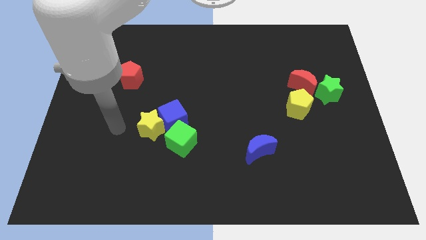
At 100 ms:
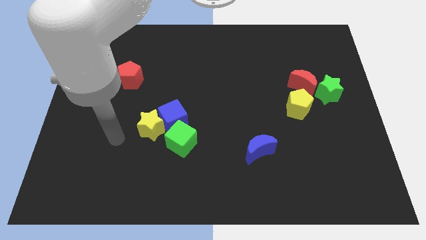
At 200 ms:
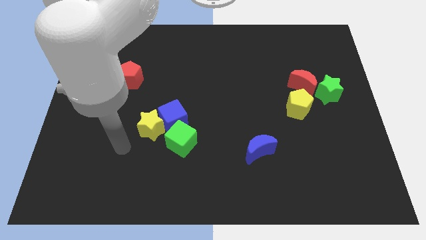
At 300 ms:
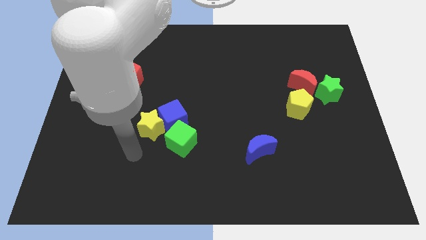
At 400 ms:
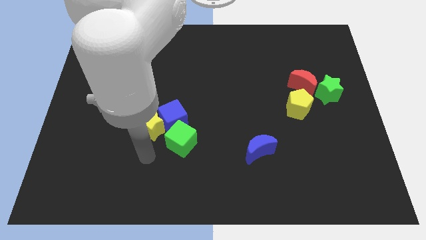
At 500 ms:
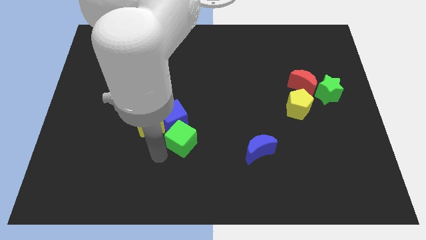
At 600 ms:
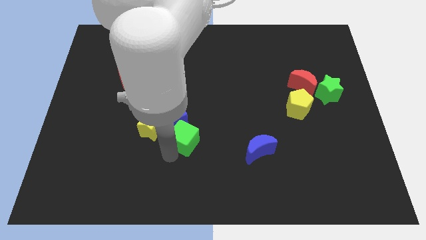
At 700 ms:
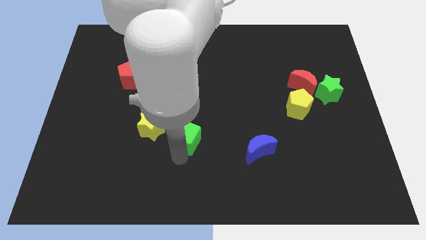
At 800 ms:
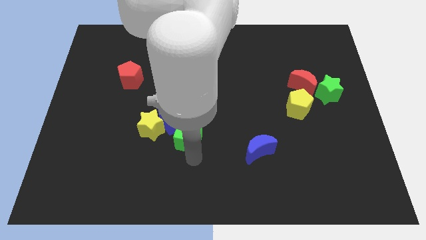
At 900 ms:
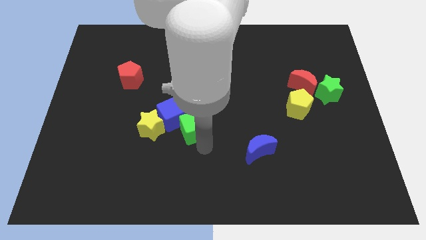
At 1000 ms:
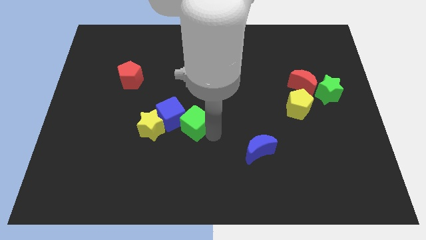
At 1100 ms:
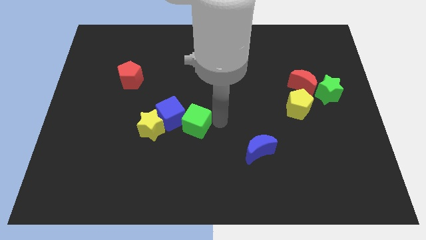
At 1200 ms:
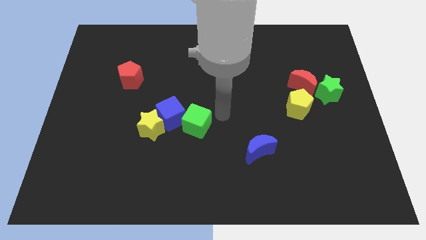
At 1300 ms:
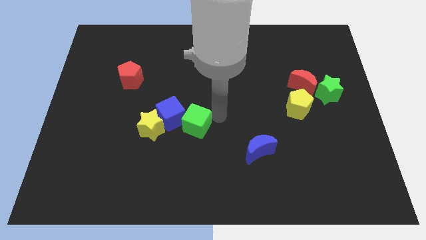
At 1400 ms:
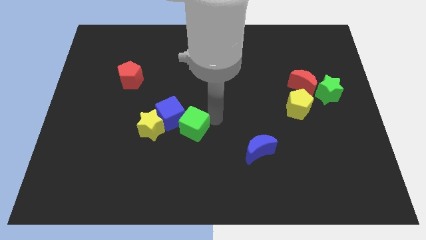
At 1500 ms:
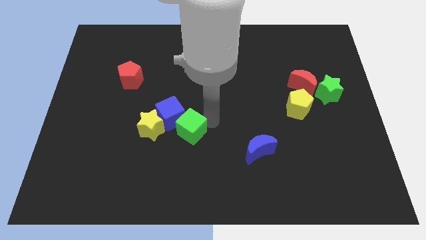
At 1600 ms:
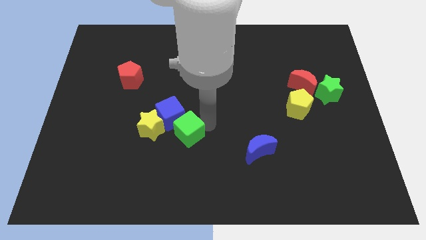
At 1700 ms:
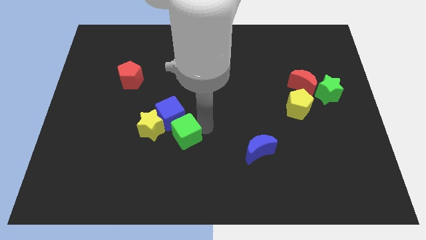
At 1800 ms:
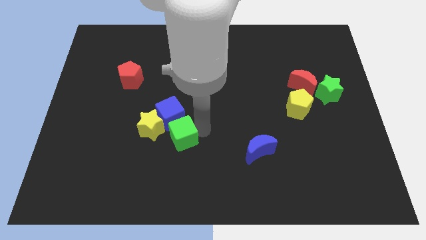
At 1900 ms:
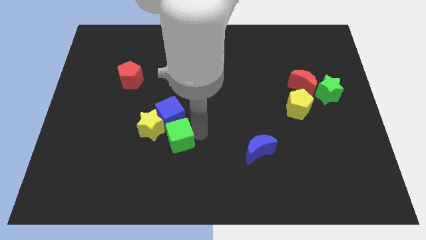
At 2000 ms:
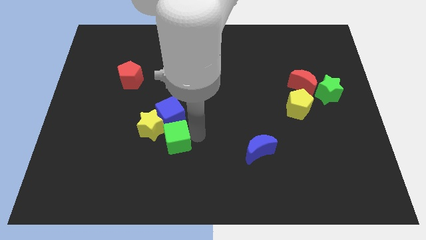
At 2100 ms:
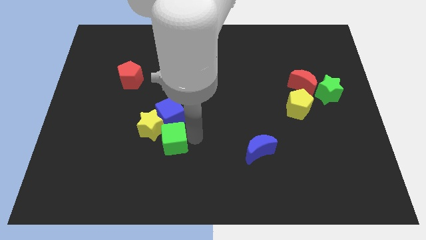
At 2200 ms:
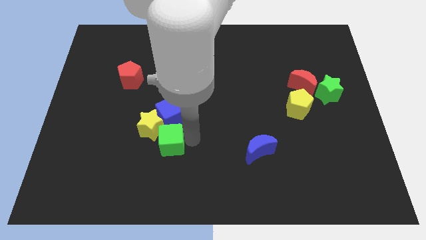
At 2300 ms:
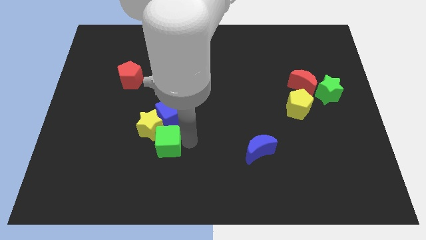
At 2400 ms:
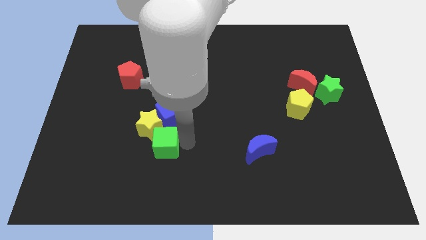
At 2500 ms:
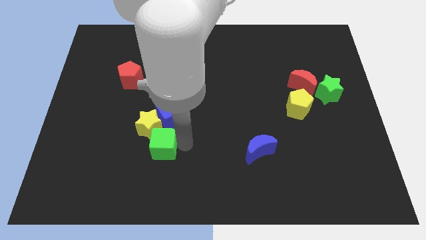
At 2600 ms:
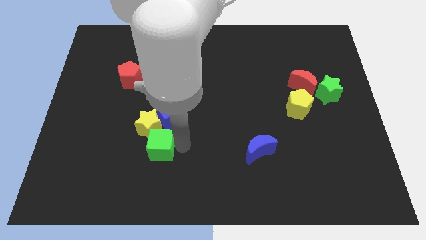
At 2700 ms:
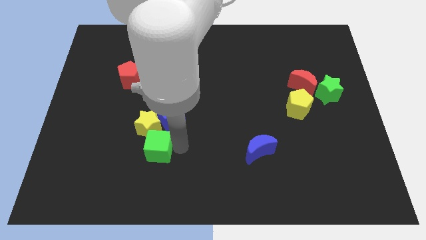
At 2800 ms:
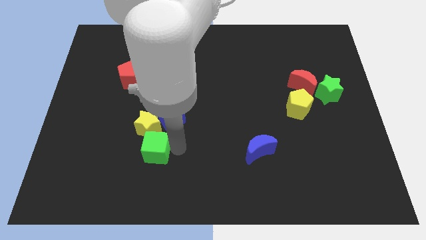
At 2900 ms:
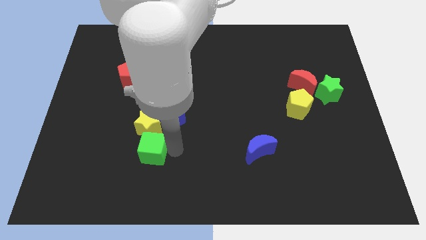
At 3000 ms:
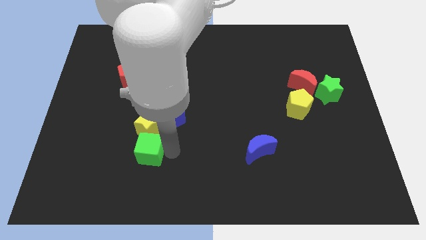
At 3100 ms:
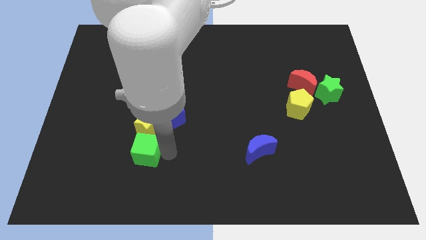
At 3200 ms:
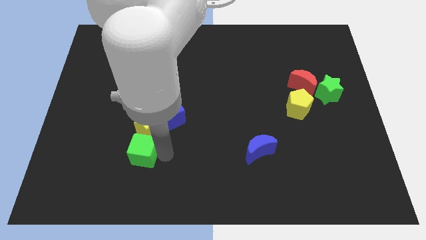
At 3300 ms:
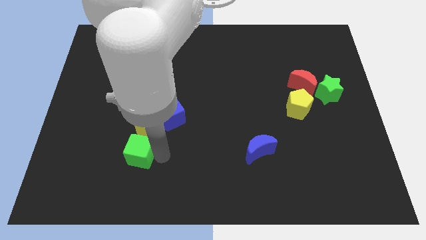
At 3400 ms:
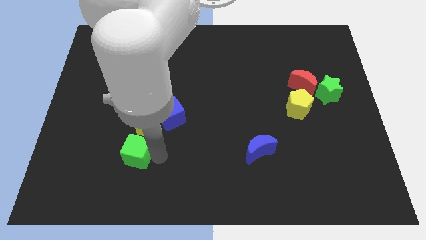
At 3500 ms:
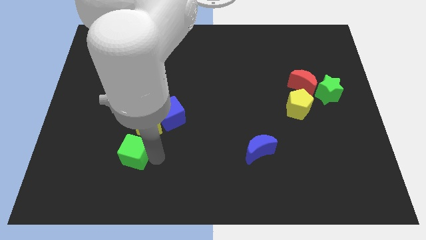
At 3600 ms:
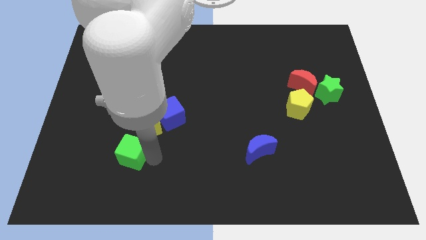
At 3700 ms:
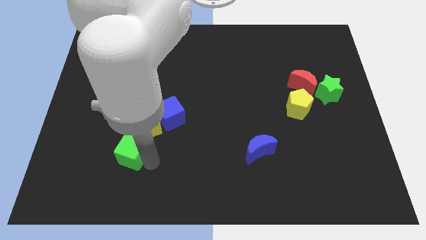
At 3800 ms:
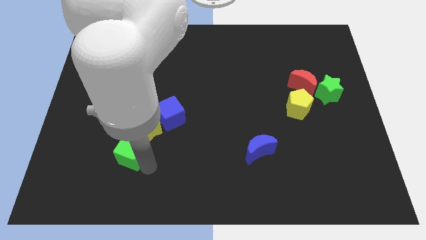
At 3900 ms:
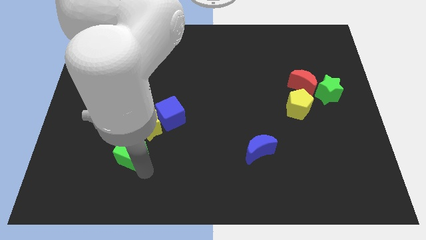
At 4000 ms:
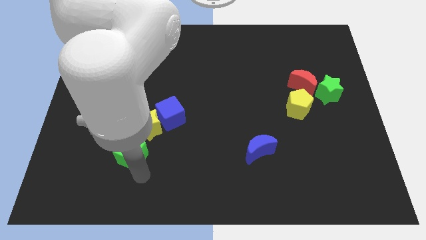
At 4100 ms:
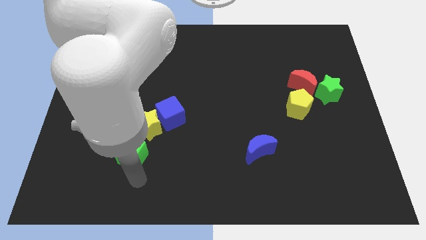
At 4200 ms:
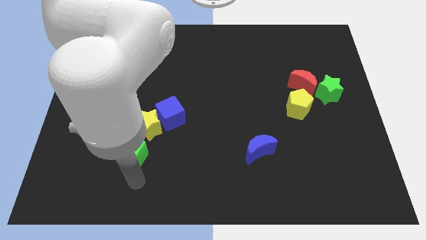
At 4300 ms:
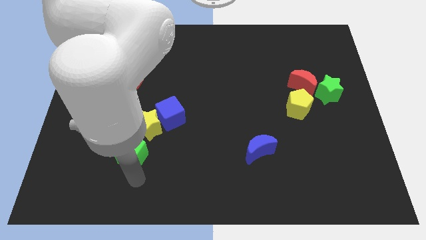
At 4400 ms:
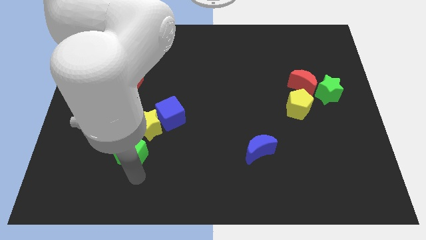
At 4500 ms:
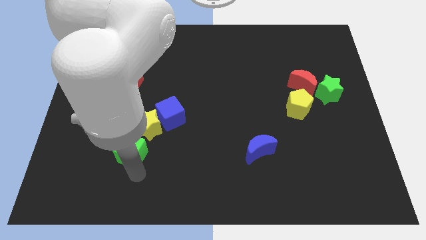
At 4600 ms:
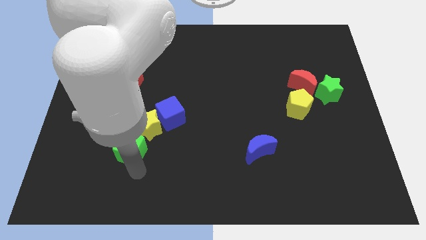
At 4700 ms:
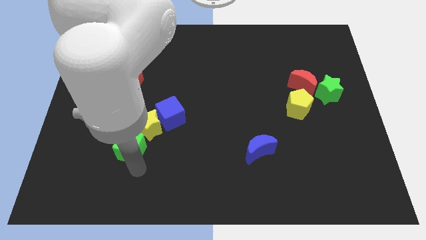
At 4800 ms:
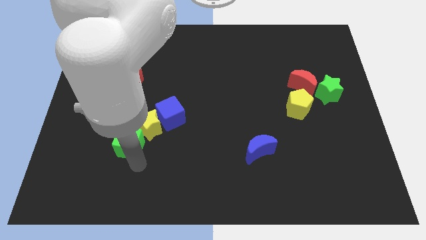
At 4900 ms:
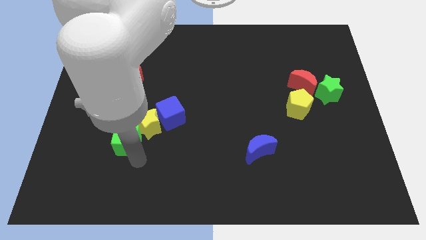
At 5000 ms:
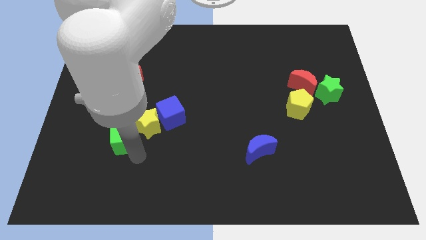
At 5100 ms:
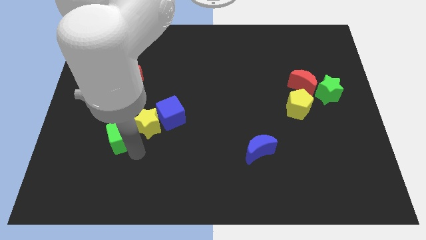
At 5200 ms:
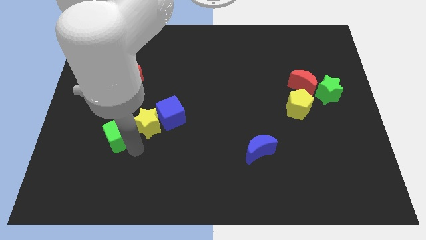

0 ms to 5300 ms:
move the green cube a little bit up and then to the left

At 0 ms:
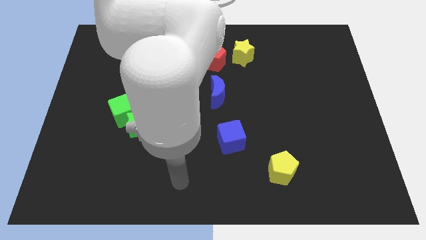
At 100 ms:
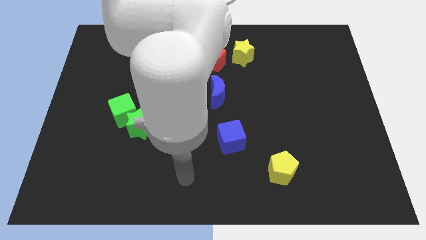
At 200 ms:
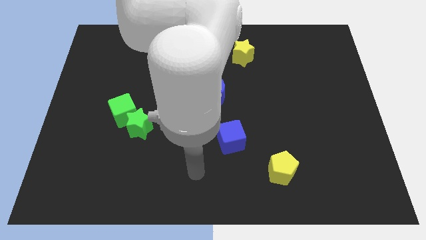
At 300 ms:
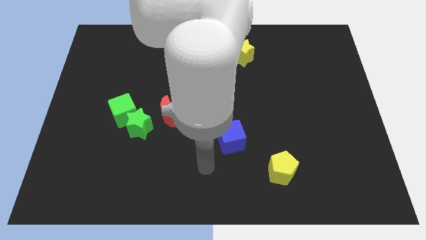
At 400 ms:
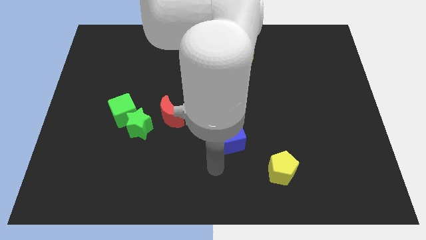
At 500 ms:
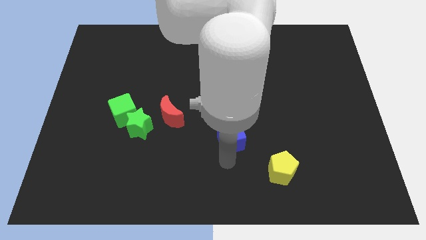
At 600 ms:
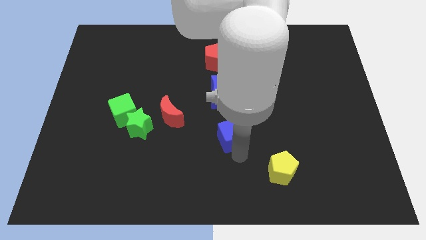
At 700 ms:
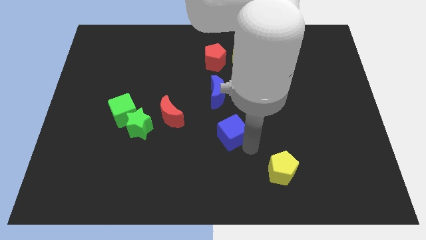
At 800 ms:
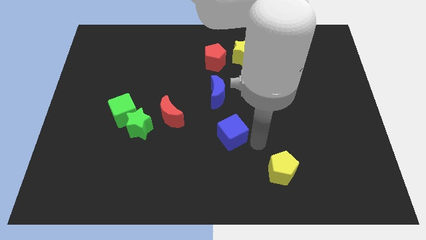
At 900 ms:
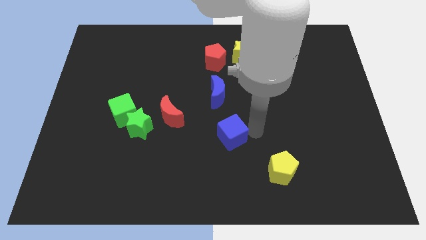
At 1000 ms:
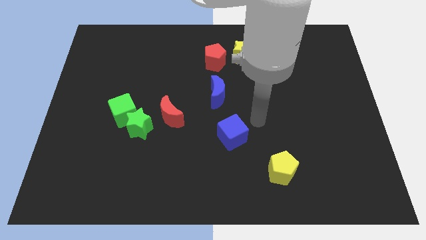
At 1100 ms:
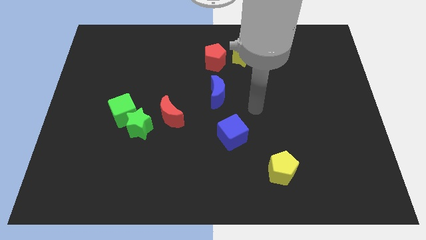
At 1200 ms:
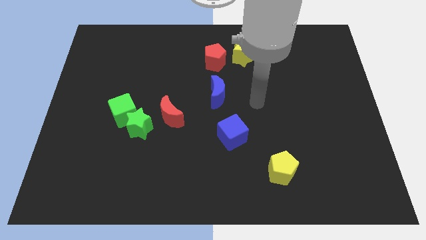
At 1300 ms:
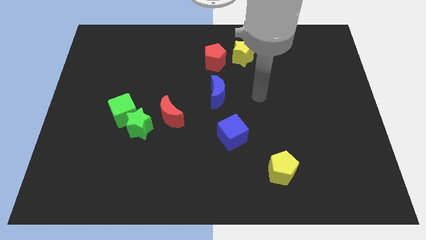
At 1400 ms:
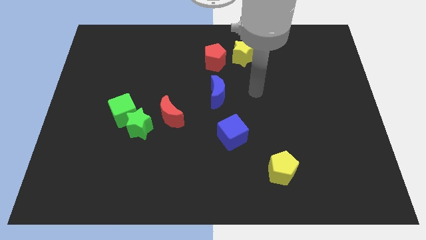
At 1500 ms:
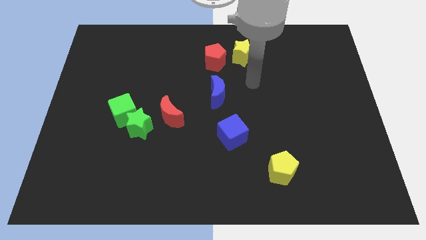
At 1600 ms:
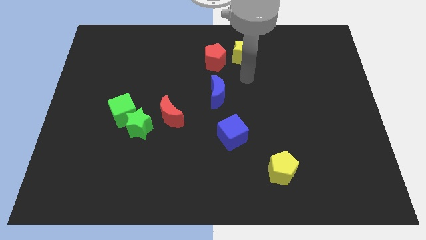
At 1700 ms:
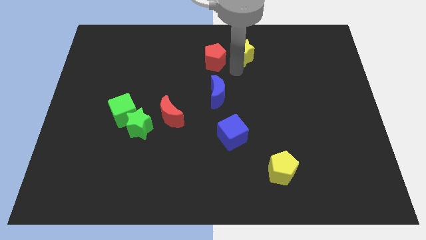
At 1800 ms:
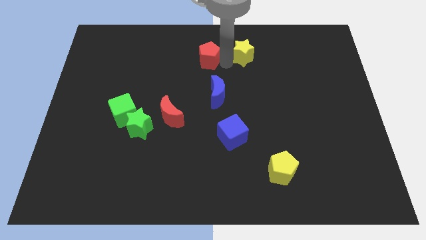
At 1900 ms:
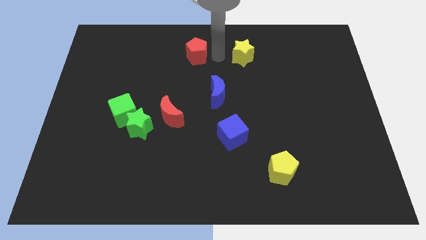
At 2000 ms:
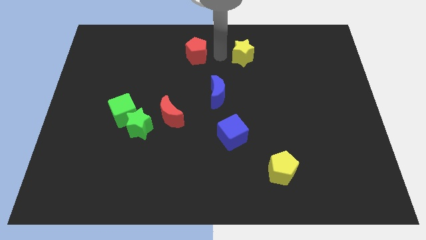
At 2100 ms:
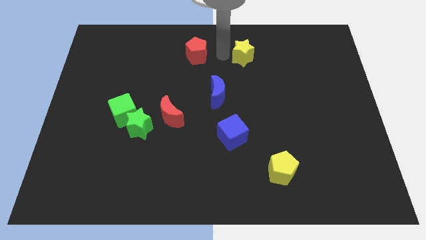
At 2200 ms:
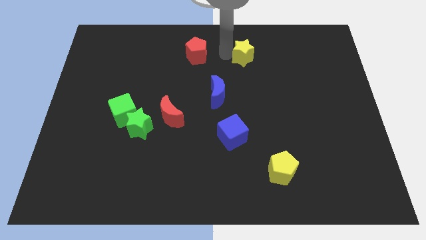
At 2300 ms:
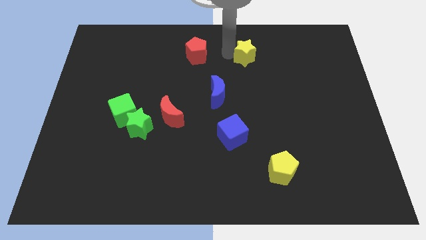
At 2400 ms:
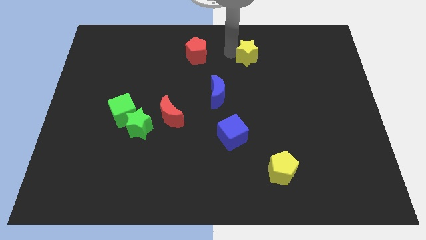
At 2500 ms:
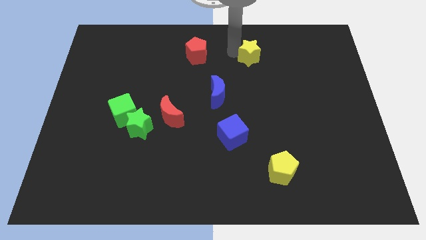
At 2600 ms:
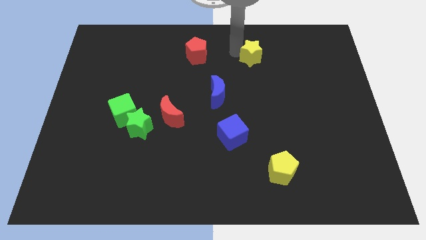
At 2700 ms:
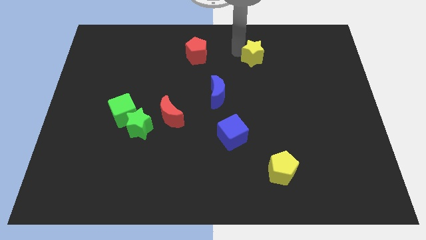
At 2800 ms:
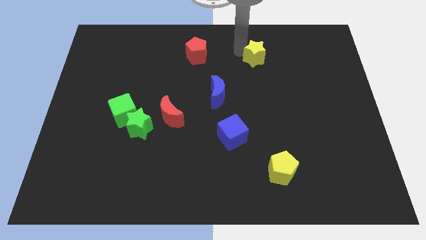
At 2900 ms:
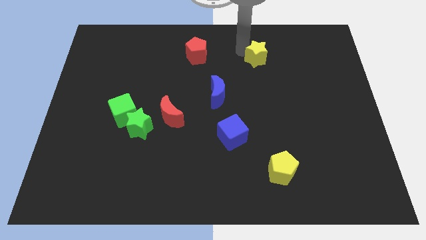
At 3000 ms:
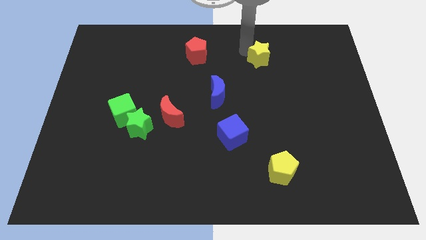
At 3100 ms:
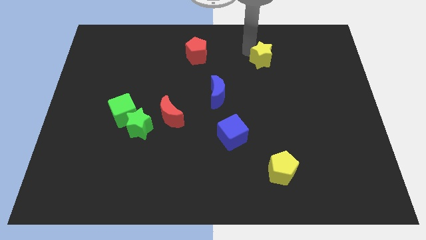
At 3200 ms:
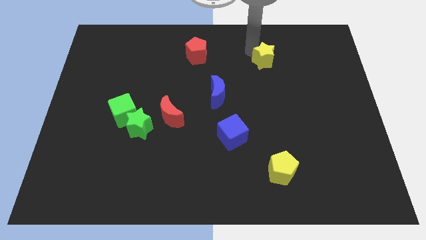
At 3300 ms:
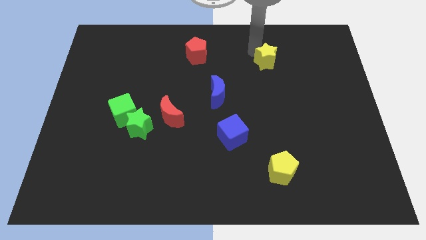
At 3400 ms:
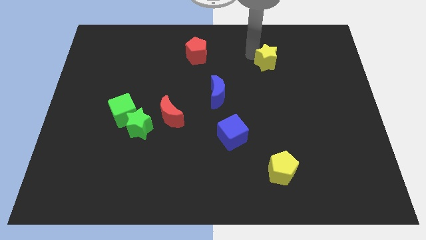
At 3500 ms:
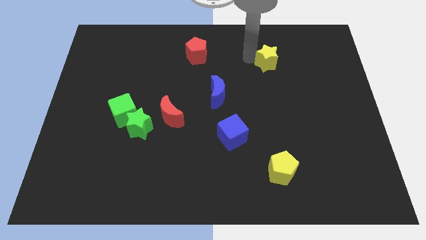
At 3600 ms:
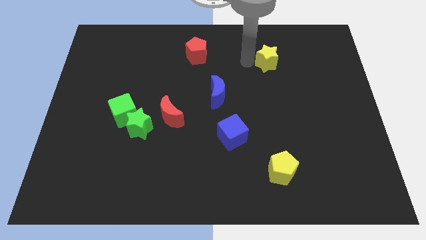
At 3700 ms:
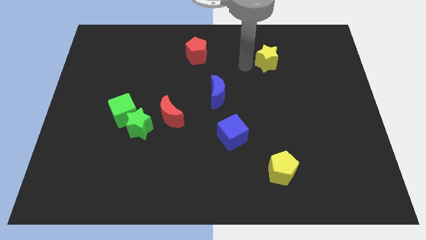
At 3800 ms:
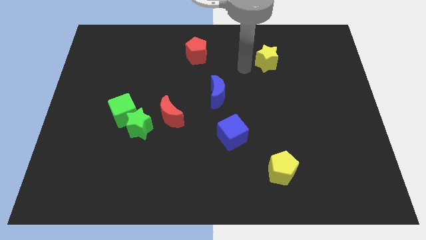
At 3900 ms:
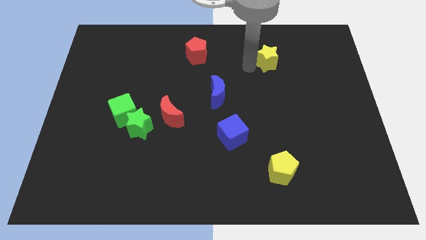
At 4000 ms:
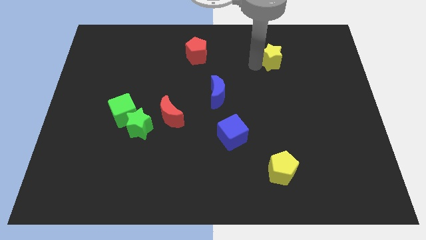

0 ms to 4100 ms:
push the yellow star to the right somewhat
